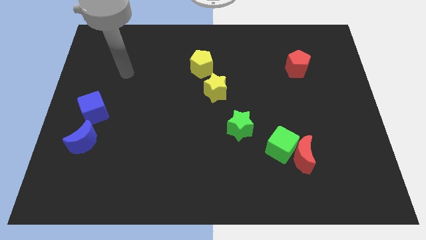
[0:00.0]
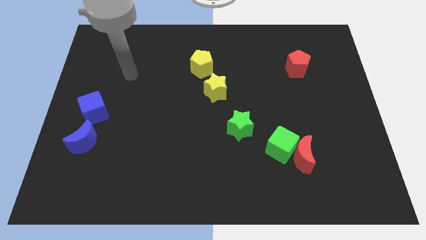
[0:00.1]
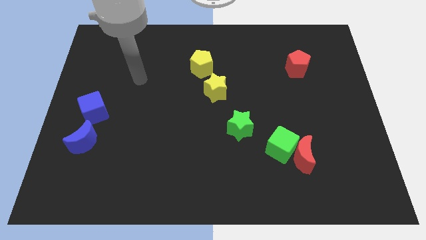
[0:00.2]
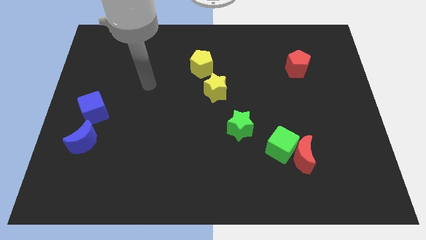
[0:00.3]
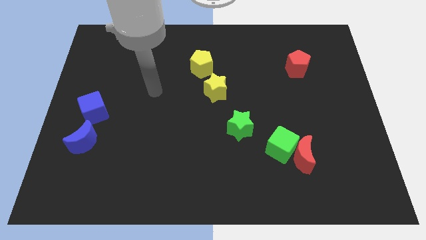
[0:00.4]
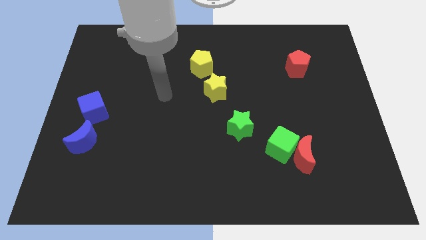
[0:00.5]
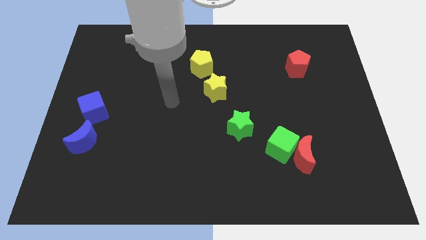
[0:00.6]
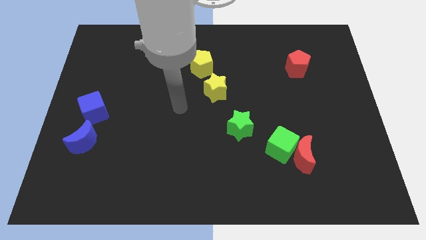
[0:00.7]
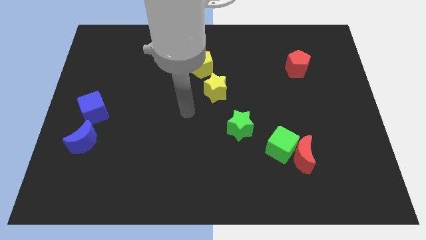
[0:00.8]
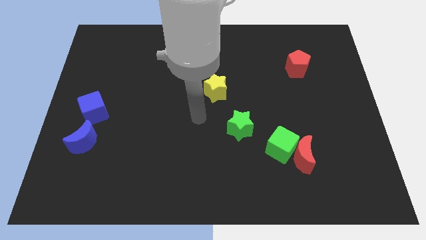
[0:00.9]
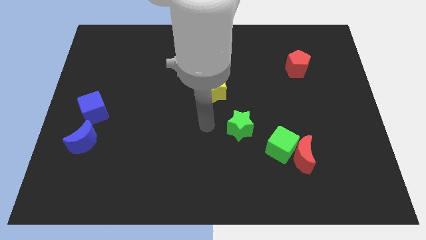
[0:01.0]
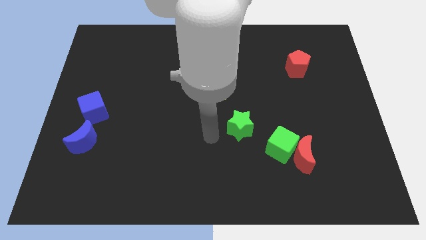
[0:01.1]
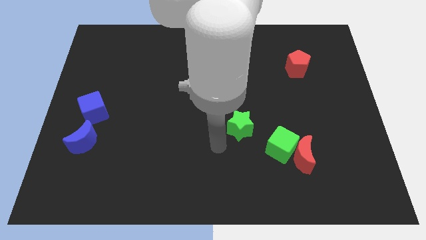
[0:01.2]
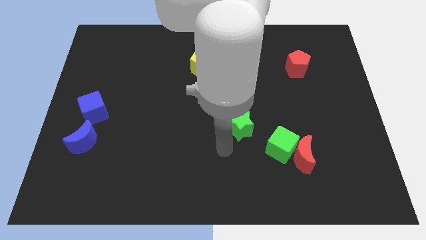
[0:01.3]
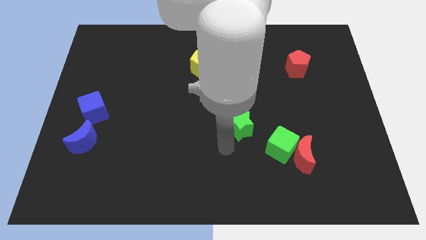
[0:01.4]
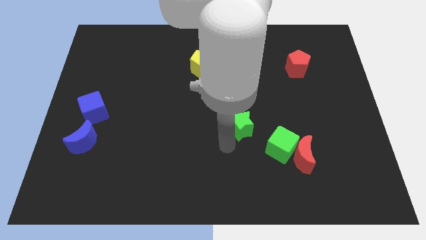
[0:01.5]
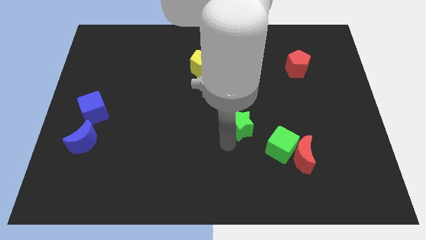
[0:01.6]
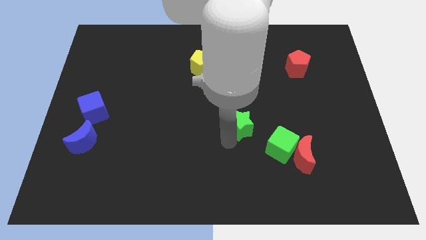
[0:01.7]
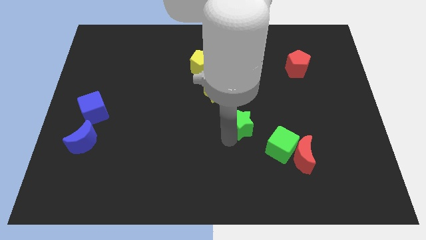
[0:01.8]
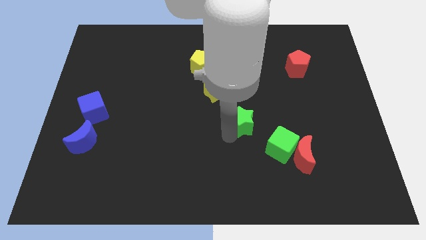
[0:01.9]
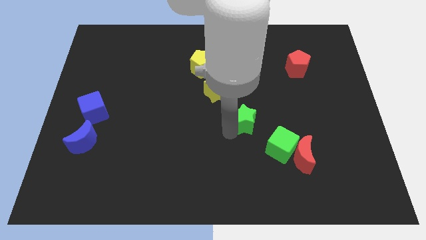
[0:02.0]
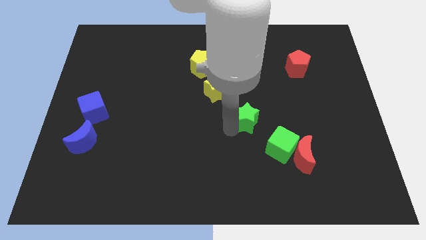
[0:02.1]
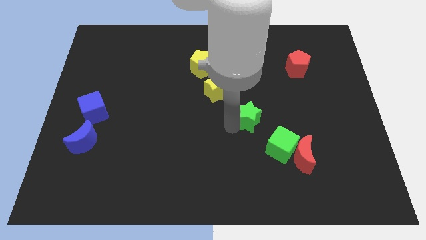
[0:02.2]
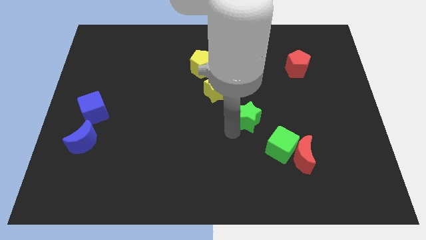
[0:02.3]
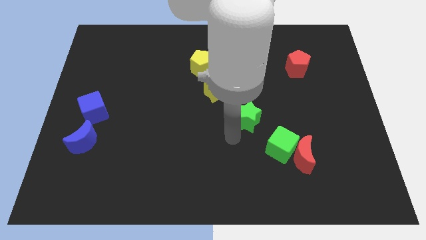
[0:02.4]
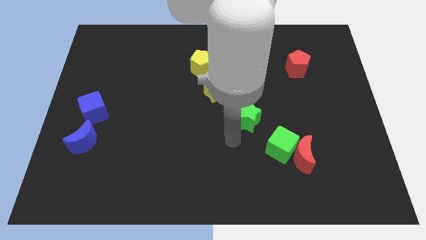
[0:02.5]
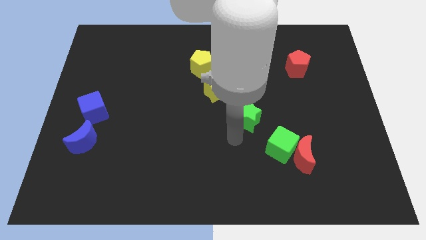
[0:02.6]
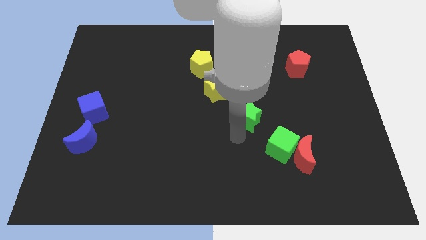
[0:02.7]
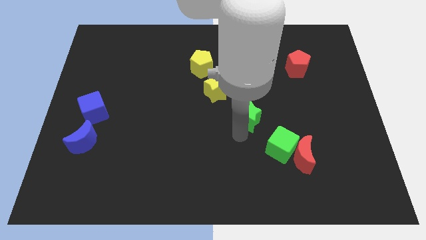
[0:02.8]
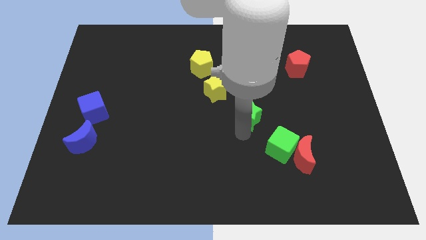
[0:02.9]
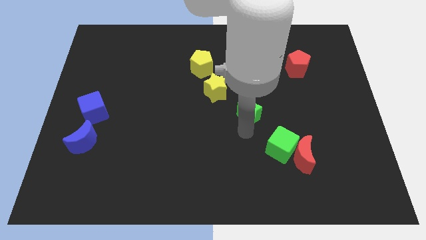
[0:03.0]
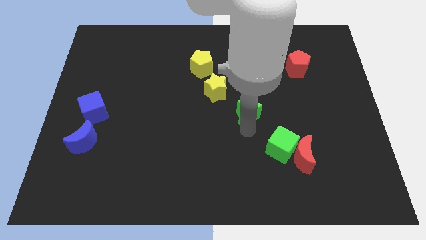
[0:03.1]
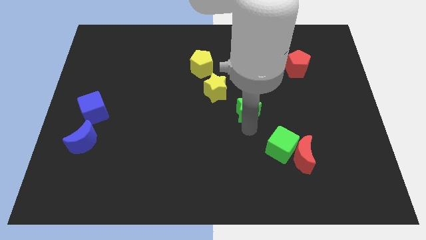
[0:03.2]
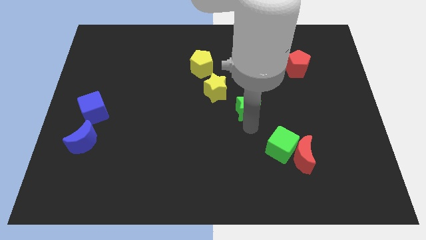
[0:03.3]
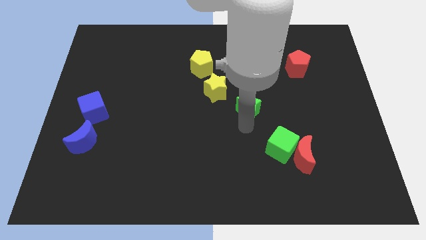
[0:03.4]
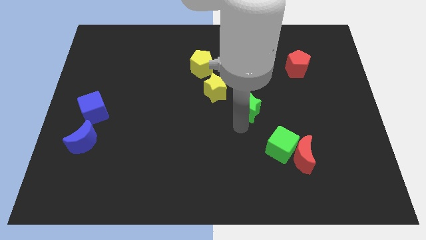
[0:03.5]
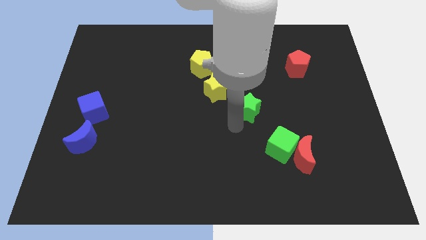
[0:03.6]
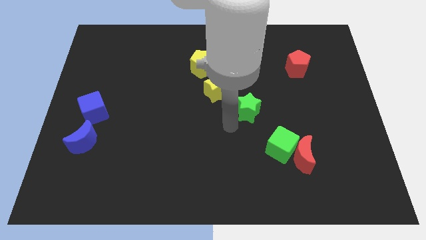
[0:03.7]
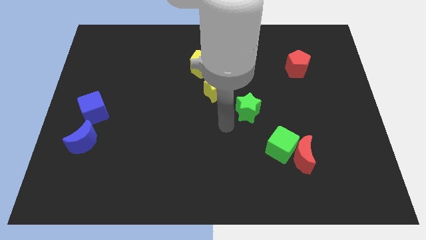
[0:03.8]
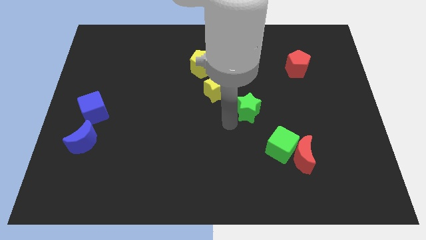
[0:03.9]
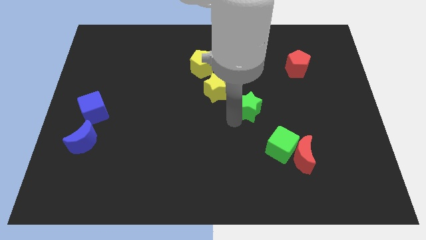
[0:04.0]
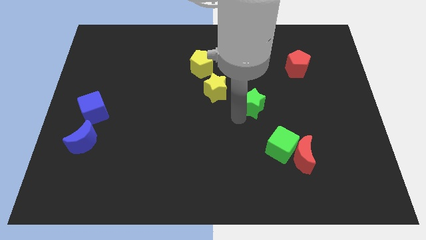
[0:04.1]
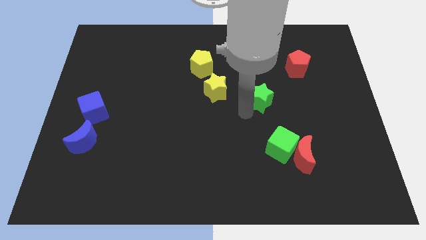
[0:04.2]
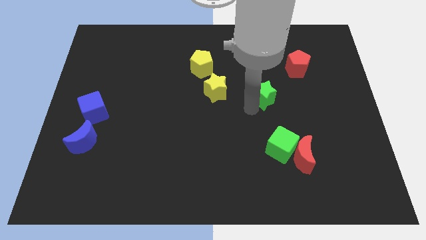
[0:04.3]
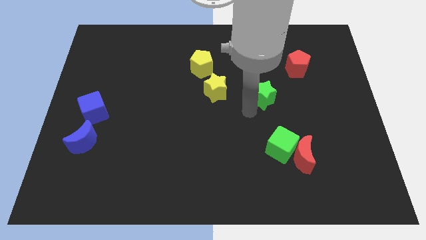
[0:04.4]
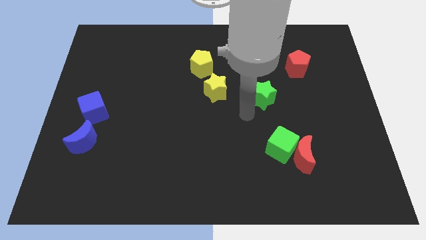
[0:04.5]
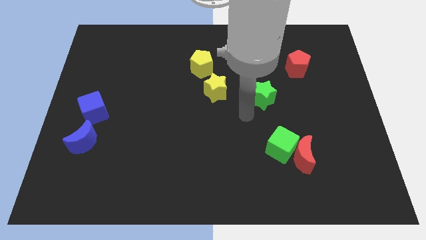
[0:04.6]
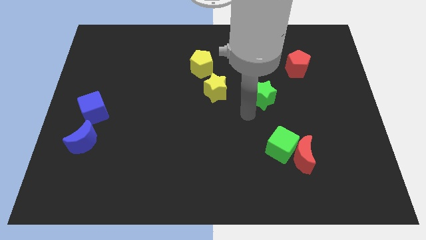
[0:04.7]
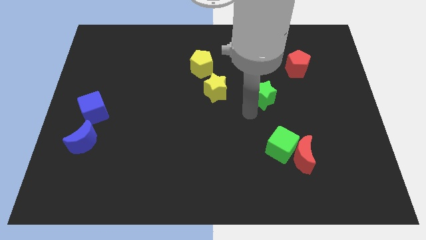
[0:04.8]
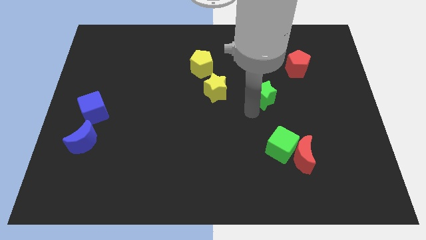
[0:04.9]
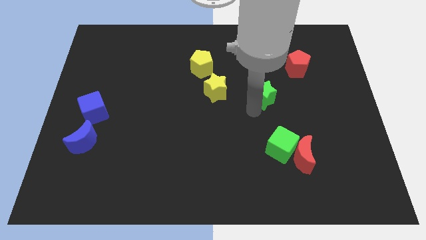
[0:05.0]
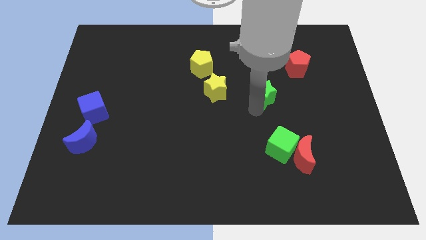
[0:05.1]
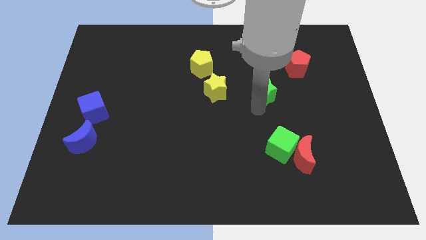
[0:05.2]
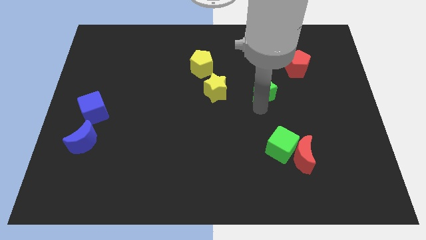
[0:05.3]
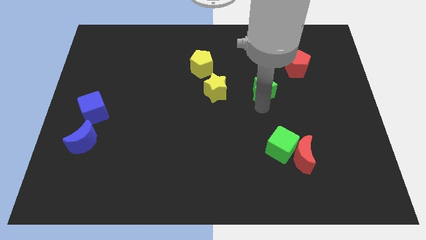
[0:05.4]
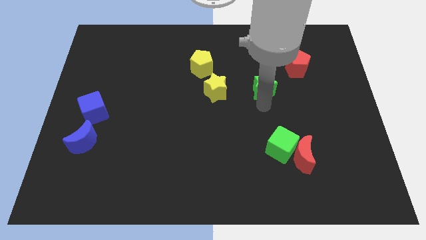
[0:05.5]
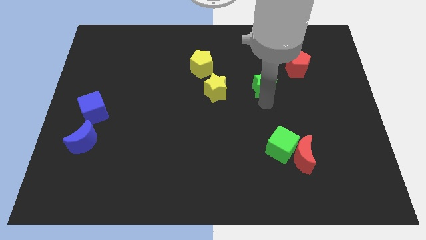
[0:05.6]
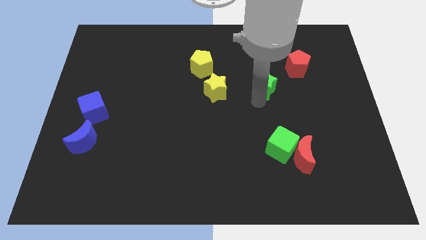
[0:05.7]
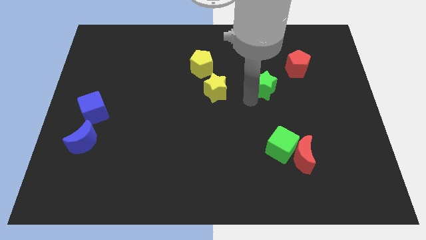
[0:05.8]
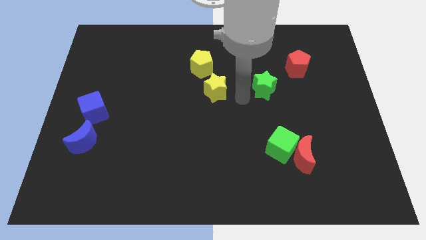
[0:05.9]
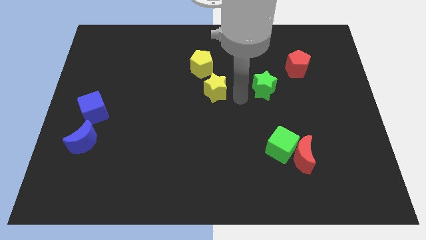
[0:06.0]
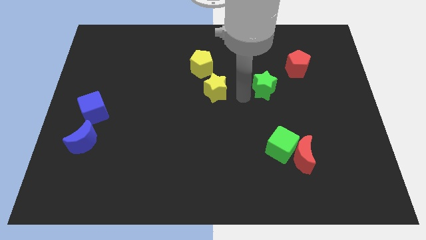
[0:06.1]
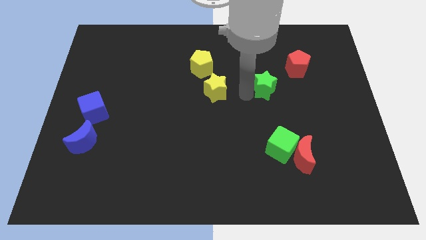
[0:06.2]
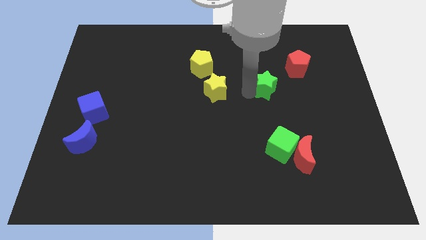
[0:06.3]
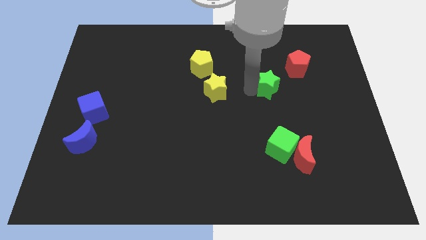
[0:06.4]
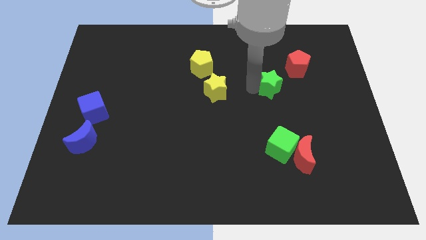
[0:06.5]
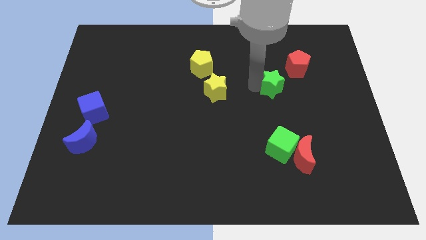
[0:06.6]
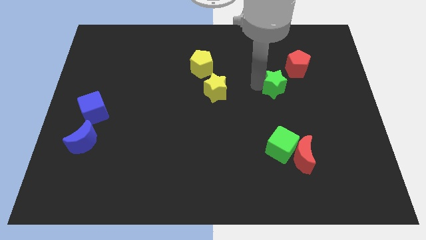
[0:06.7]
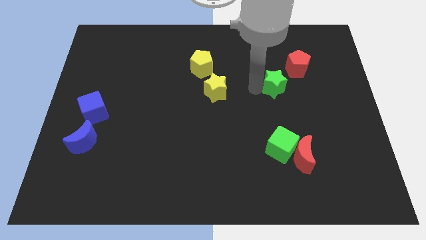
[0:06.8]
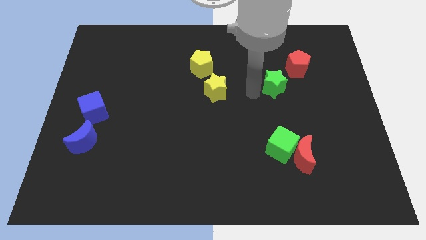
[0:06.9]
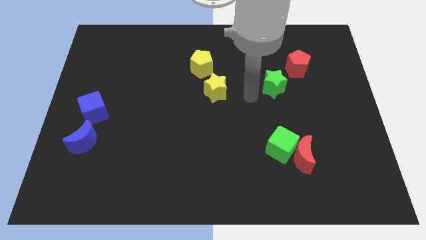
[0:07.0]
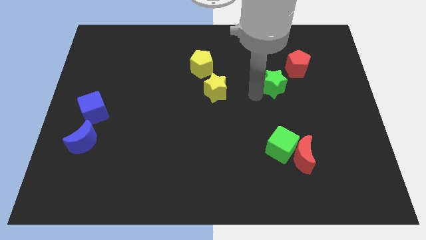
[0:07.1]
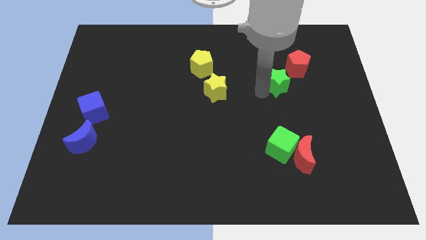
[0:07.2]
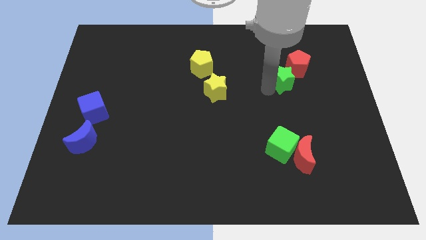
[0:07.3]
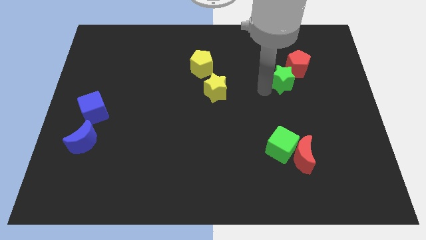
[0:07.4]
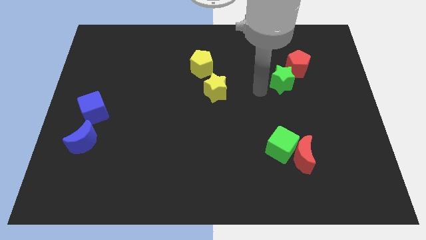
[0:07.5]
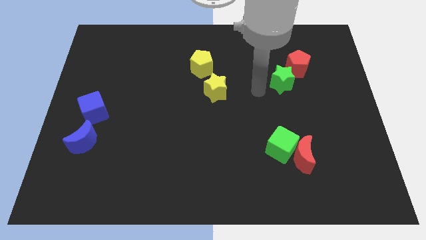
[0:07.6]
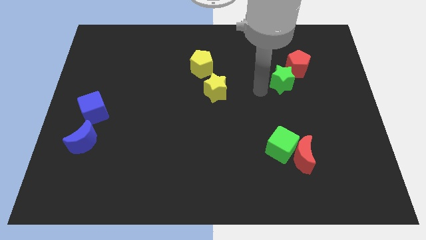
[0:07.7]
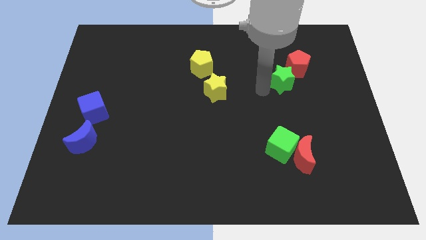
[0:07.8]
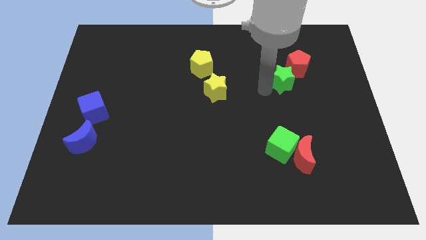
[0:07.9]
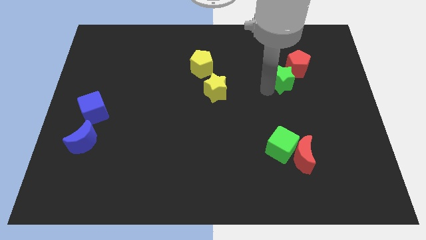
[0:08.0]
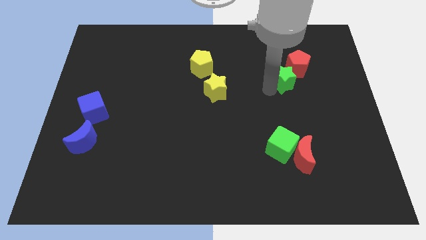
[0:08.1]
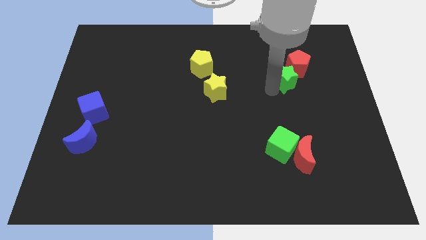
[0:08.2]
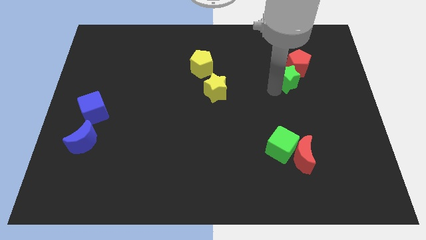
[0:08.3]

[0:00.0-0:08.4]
slide the green star close to the red pentagon
